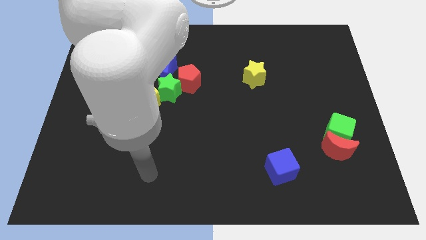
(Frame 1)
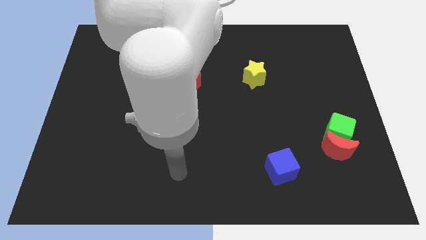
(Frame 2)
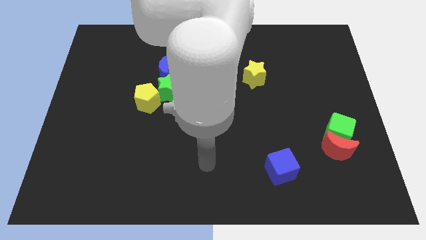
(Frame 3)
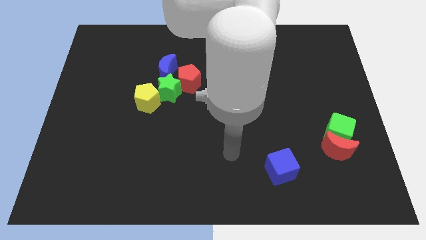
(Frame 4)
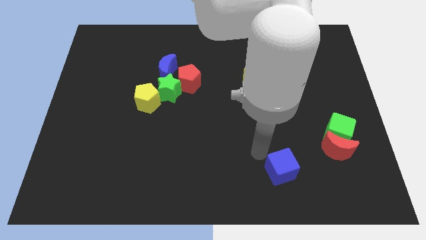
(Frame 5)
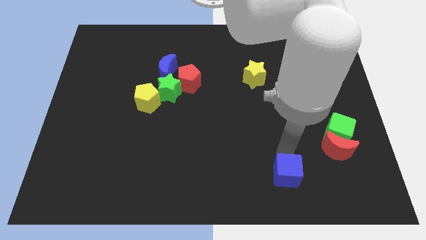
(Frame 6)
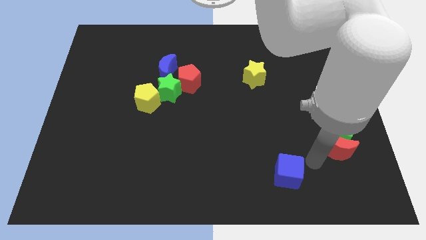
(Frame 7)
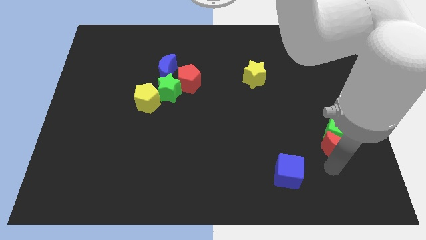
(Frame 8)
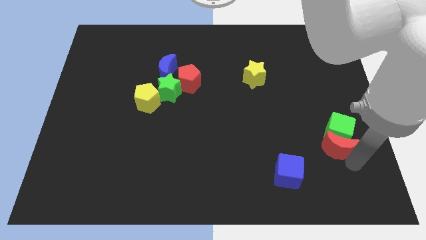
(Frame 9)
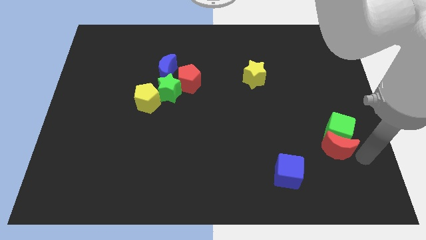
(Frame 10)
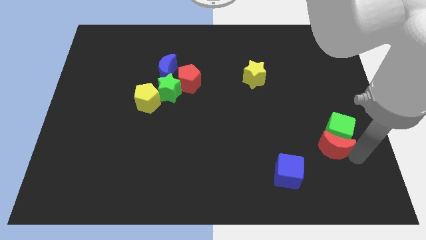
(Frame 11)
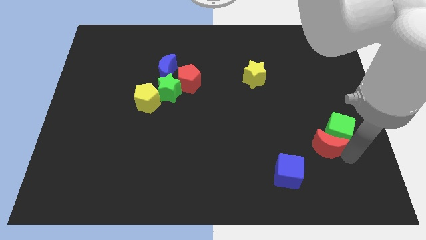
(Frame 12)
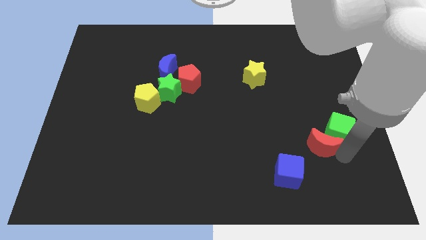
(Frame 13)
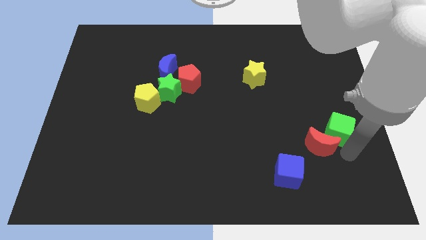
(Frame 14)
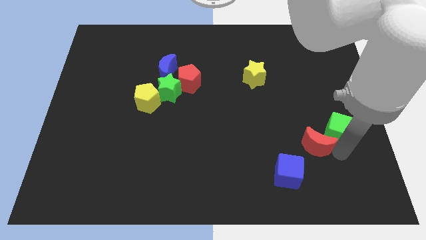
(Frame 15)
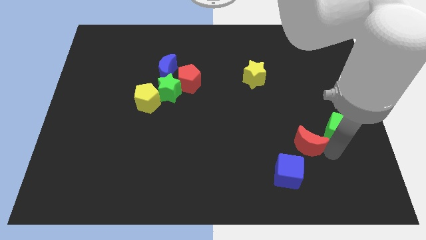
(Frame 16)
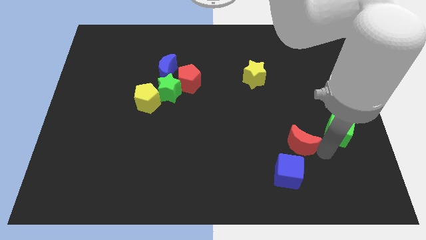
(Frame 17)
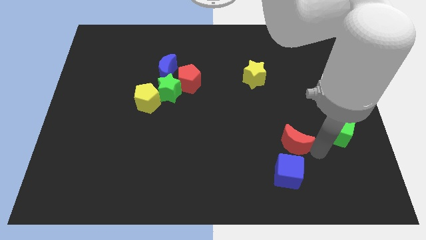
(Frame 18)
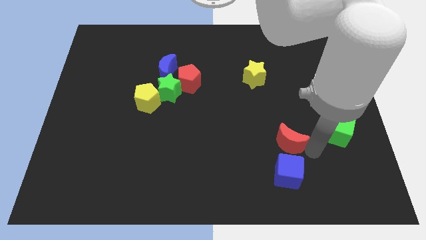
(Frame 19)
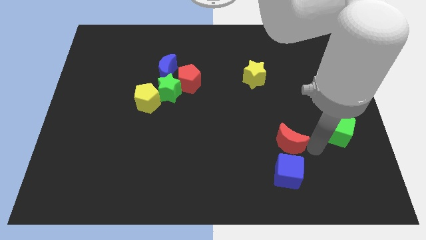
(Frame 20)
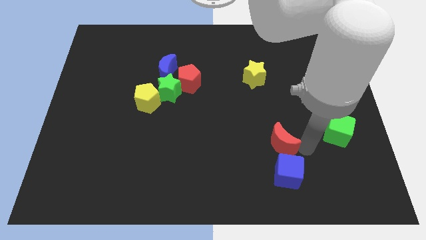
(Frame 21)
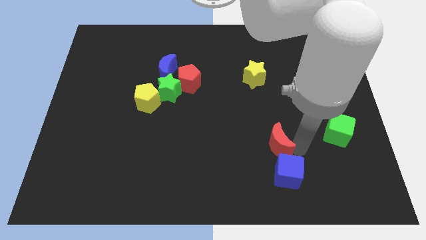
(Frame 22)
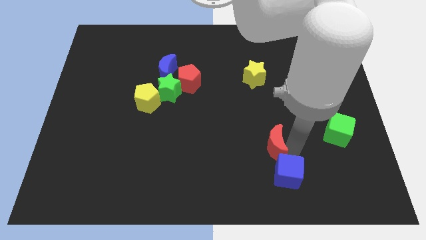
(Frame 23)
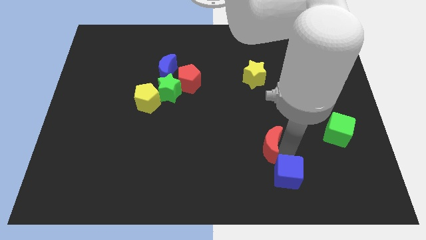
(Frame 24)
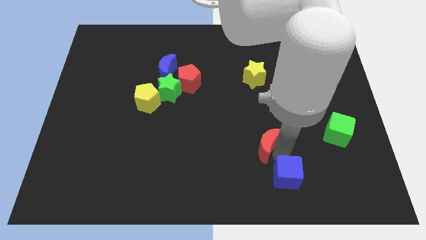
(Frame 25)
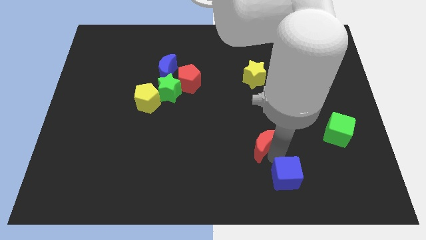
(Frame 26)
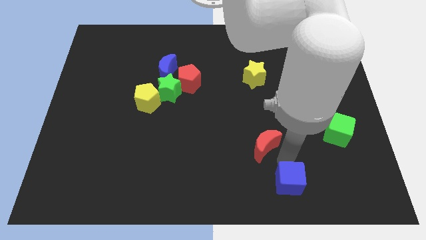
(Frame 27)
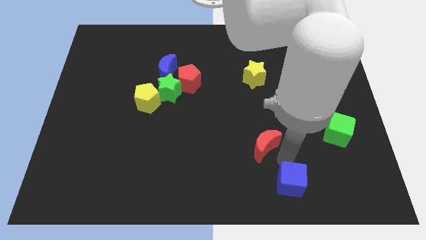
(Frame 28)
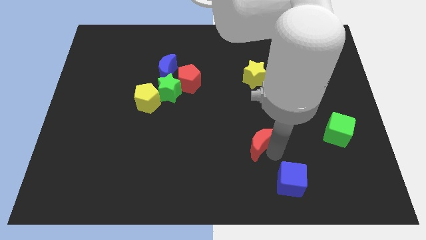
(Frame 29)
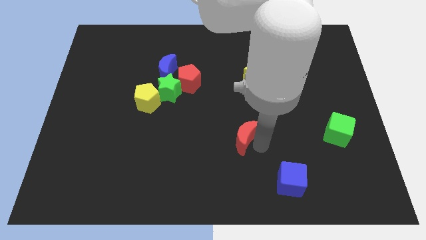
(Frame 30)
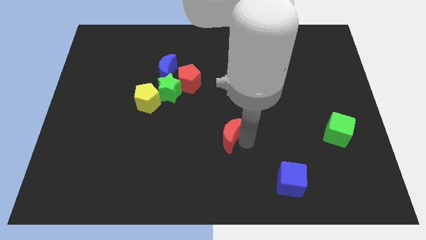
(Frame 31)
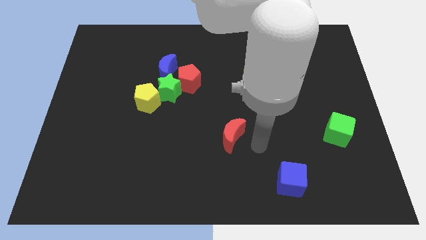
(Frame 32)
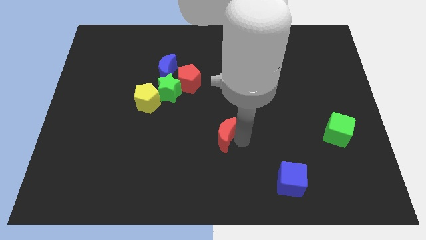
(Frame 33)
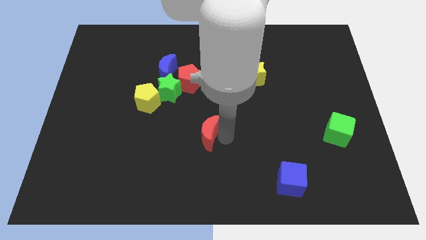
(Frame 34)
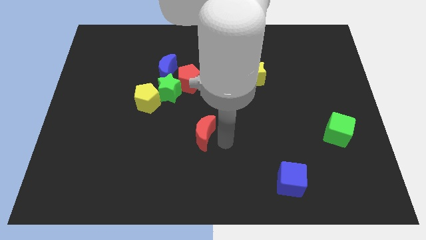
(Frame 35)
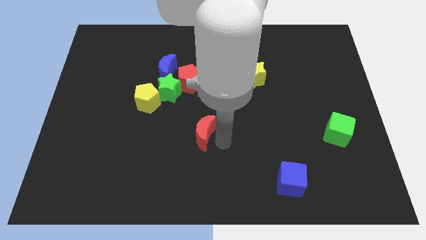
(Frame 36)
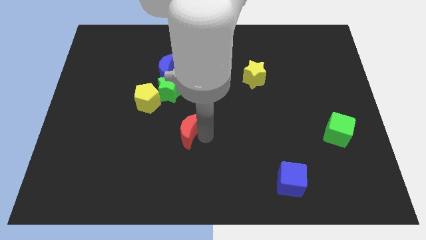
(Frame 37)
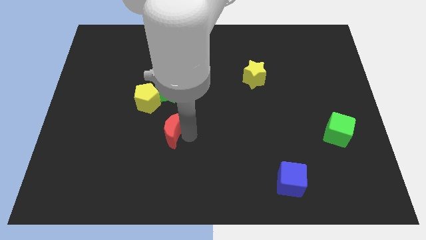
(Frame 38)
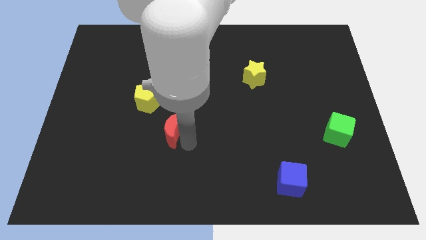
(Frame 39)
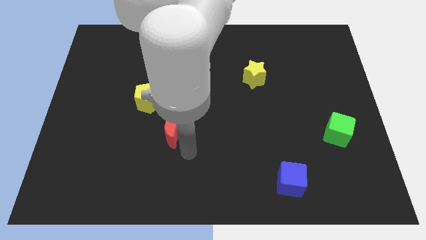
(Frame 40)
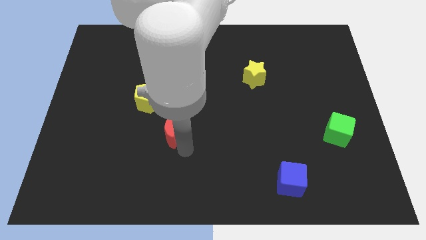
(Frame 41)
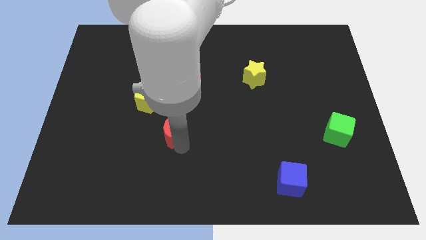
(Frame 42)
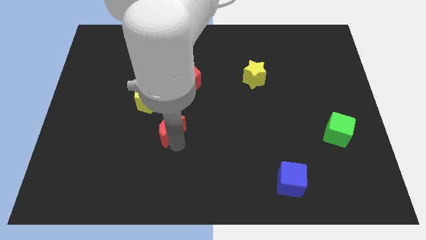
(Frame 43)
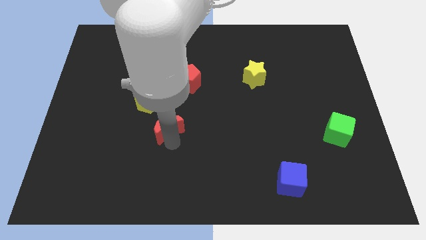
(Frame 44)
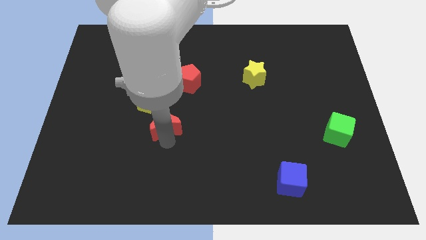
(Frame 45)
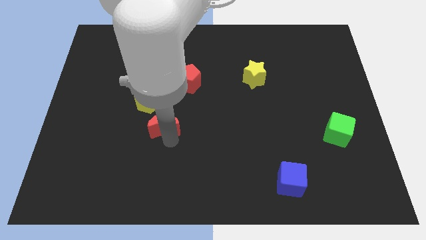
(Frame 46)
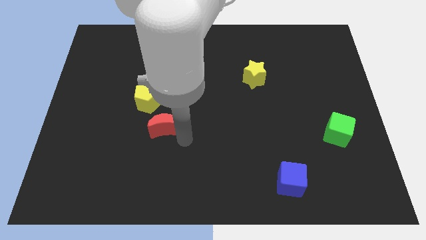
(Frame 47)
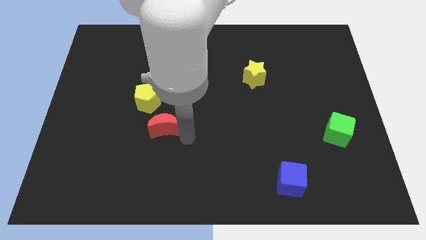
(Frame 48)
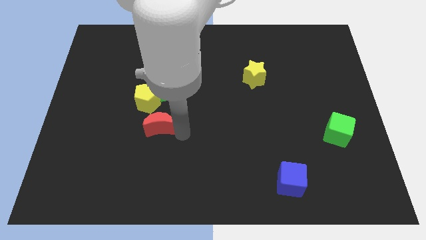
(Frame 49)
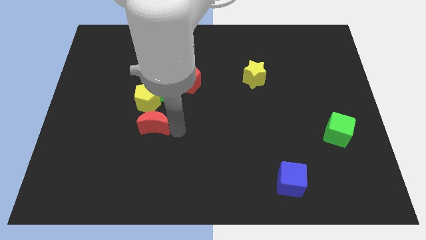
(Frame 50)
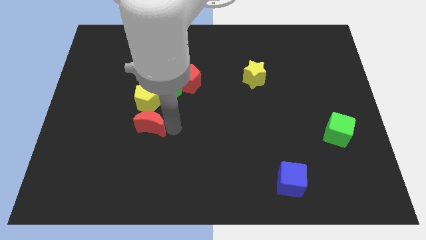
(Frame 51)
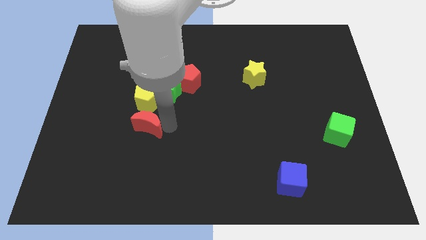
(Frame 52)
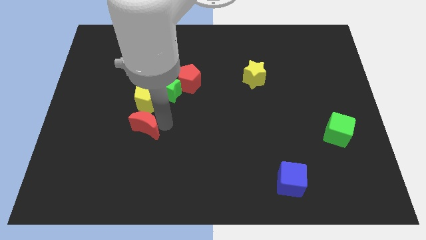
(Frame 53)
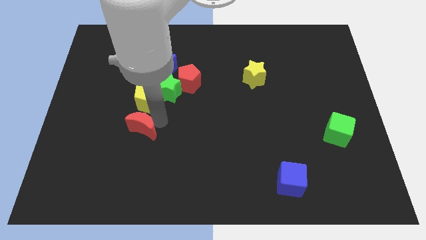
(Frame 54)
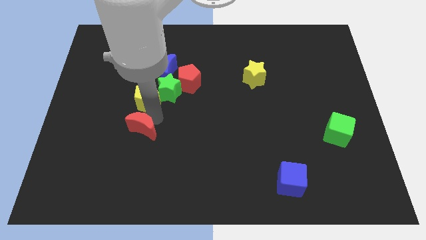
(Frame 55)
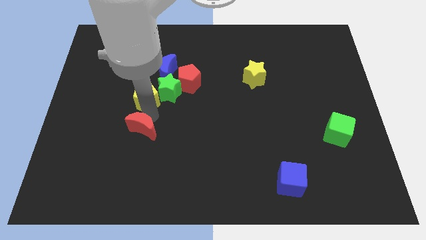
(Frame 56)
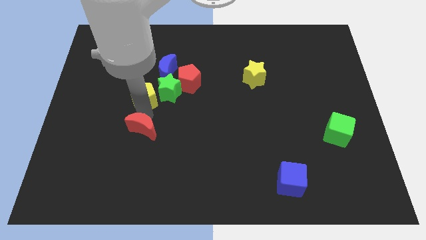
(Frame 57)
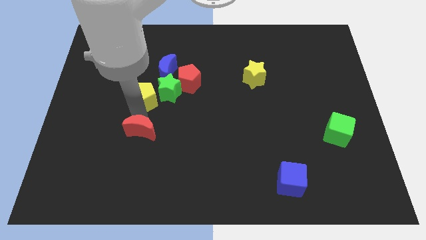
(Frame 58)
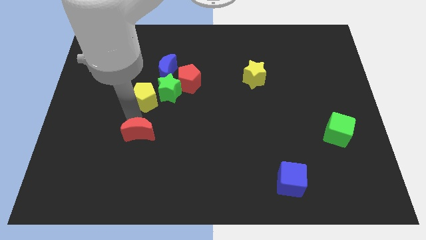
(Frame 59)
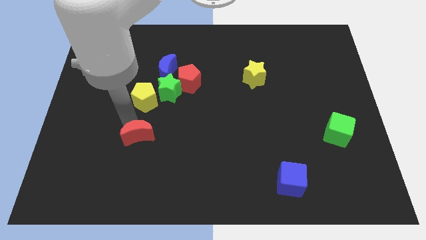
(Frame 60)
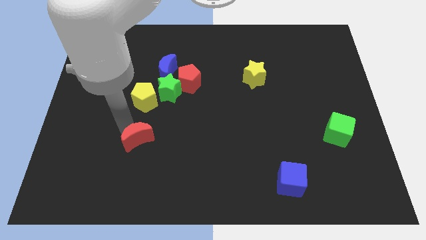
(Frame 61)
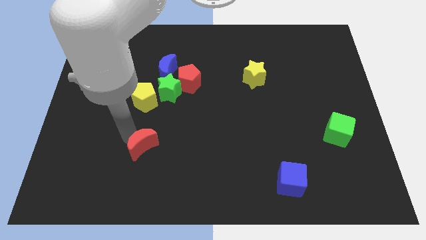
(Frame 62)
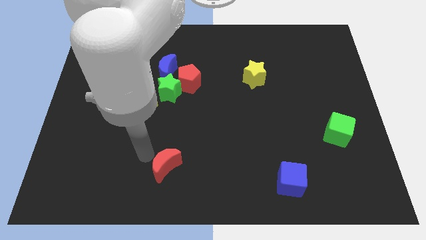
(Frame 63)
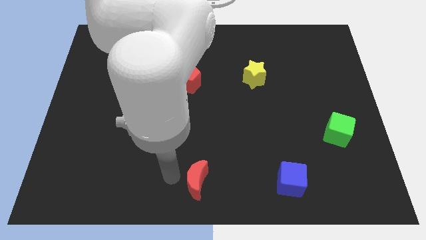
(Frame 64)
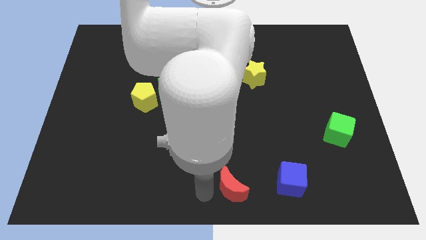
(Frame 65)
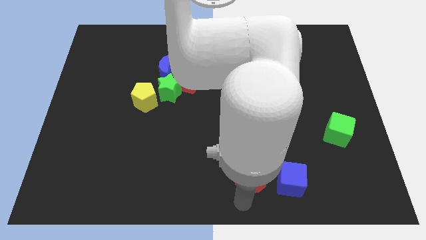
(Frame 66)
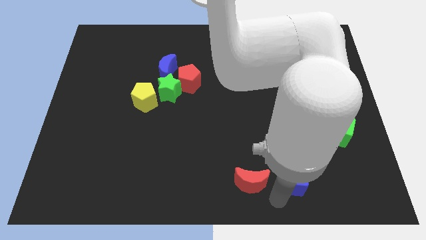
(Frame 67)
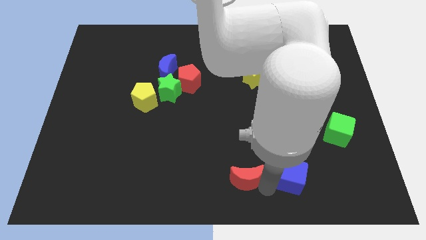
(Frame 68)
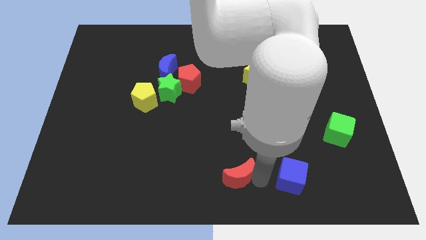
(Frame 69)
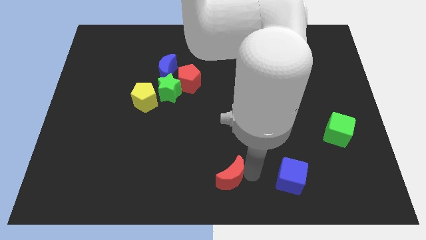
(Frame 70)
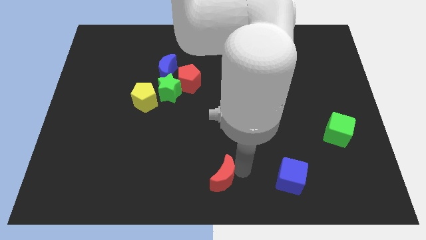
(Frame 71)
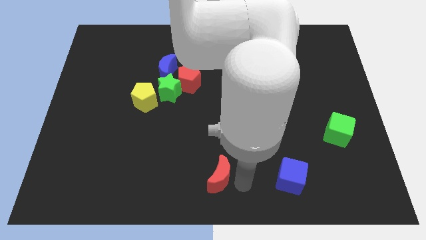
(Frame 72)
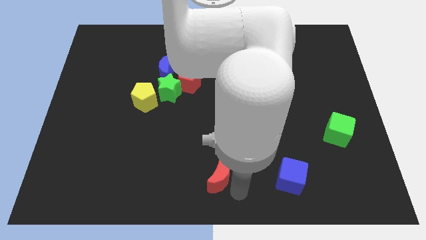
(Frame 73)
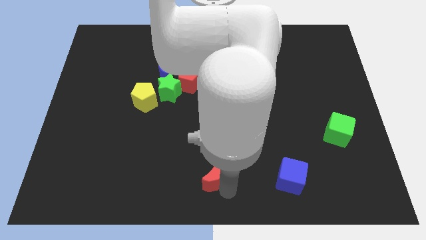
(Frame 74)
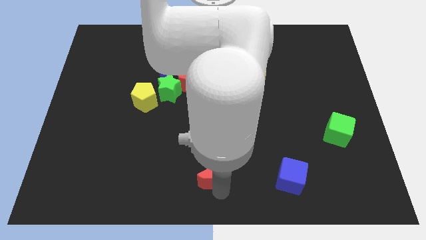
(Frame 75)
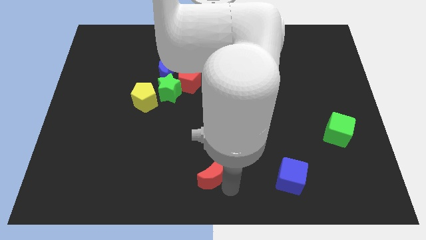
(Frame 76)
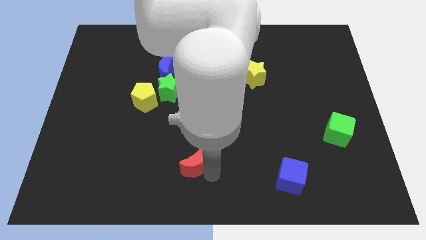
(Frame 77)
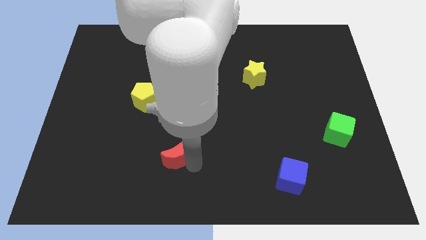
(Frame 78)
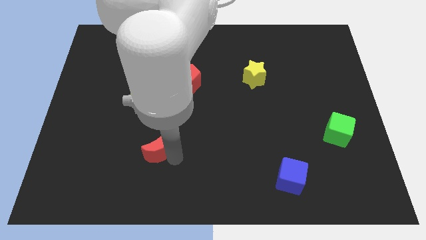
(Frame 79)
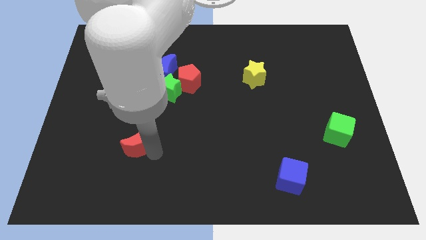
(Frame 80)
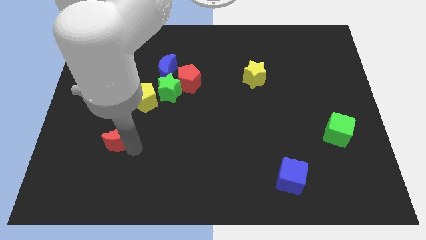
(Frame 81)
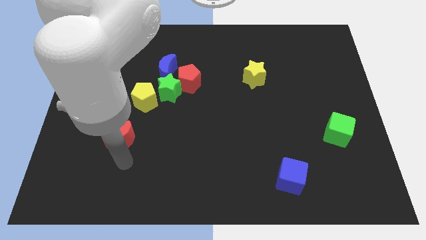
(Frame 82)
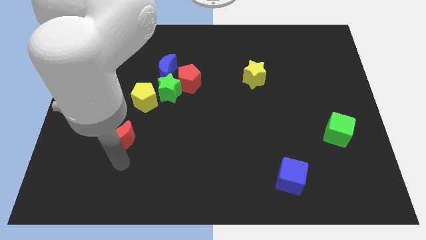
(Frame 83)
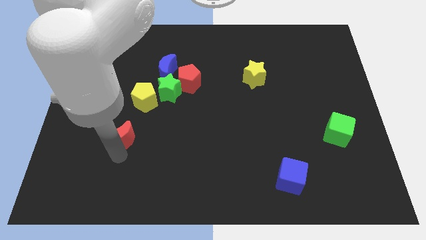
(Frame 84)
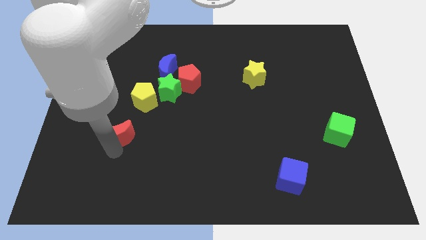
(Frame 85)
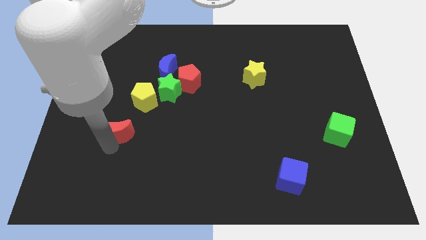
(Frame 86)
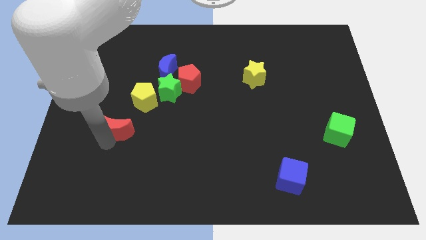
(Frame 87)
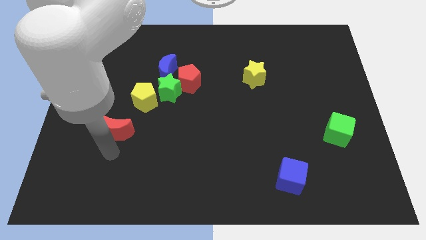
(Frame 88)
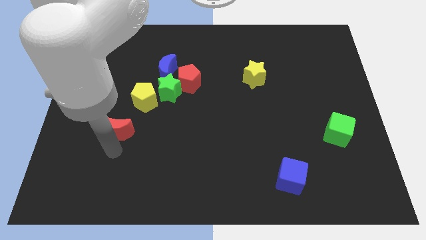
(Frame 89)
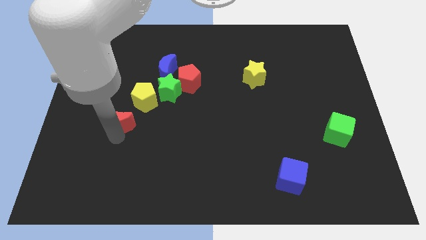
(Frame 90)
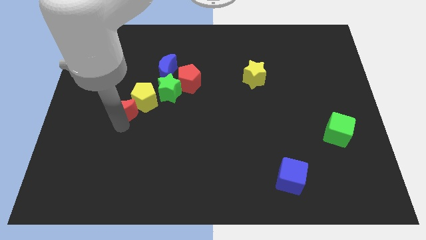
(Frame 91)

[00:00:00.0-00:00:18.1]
put the red moon to the left of the yellow pentagon
